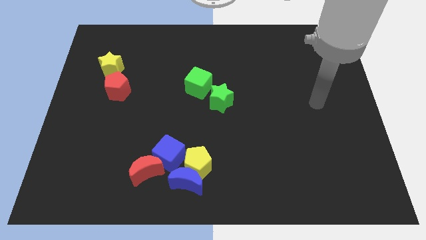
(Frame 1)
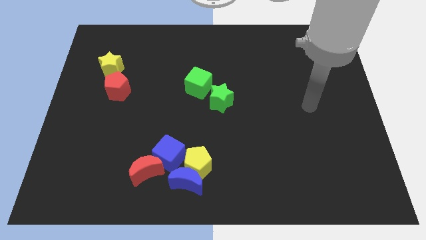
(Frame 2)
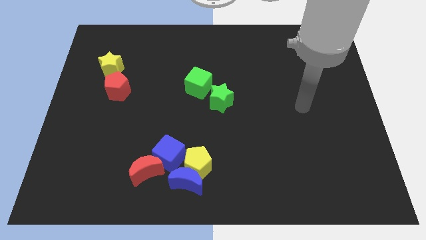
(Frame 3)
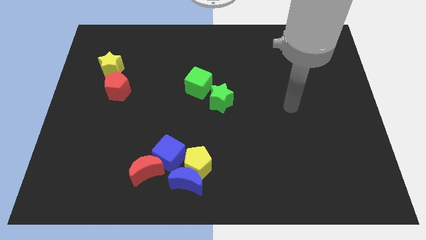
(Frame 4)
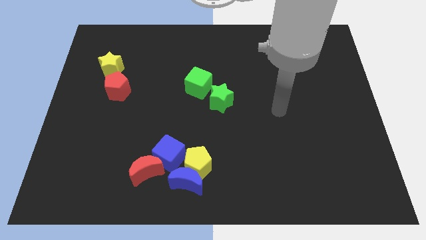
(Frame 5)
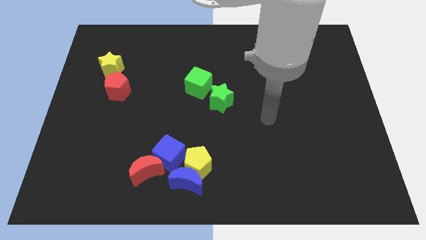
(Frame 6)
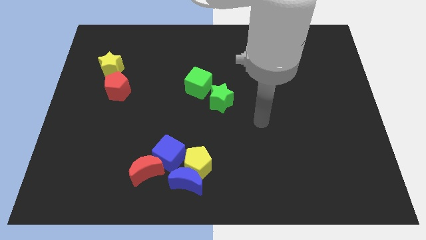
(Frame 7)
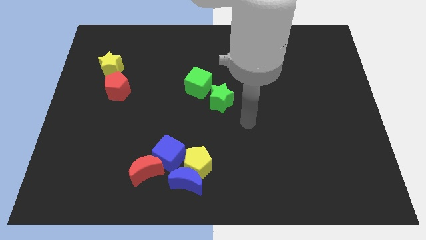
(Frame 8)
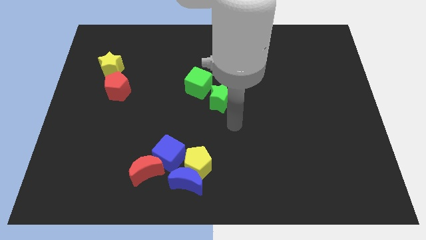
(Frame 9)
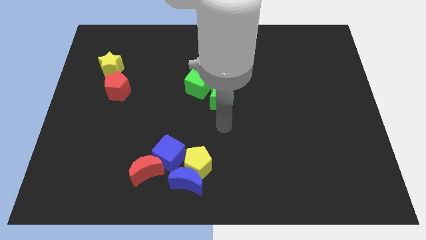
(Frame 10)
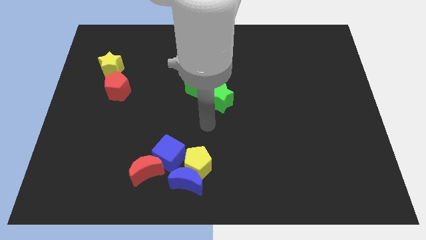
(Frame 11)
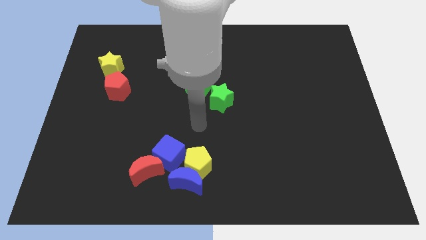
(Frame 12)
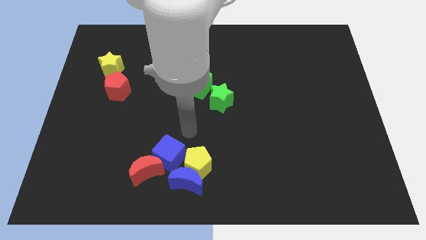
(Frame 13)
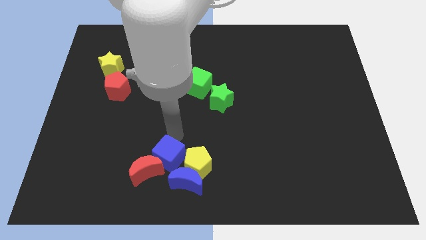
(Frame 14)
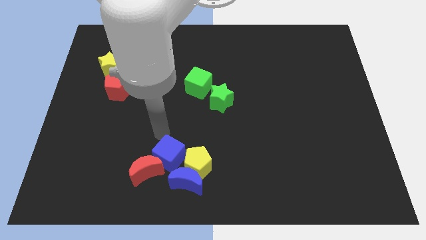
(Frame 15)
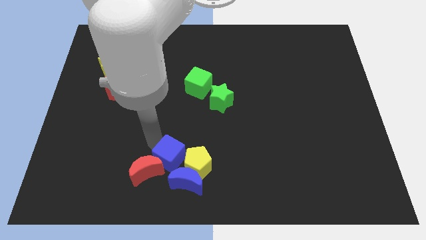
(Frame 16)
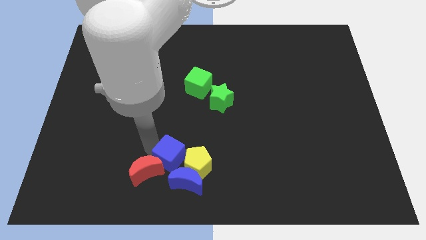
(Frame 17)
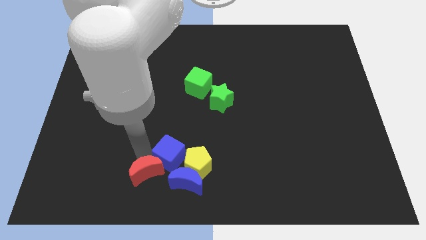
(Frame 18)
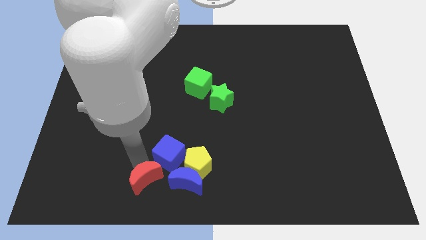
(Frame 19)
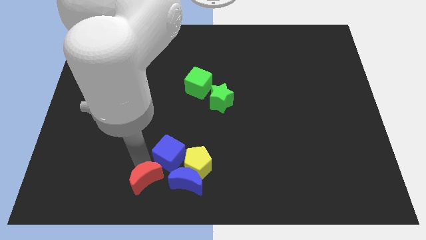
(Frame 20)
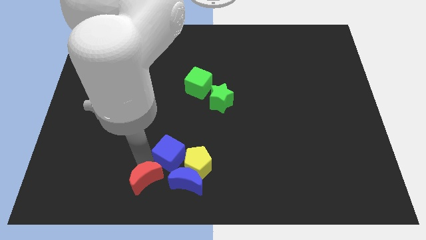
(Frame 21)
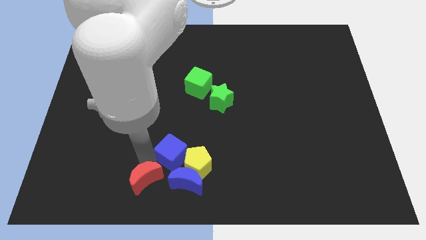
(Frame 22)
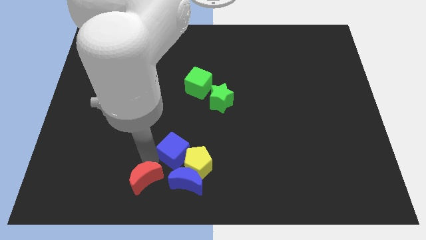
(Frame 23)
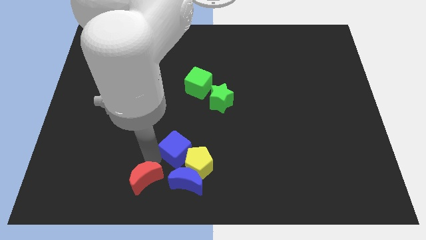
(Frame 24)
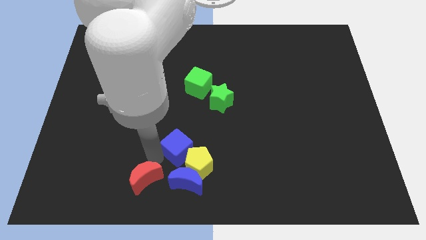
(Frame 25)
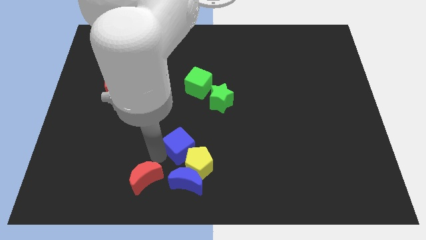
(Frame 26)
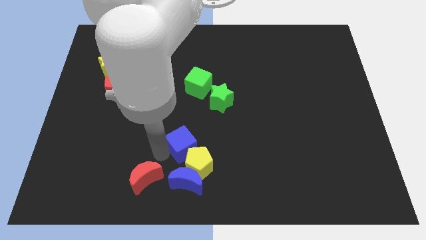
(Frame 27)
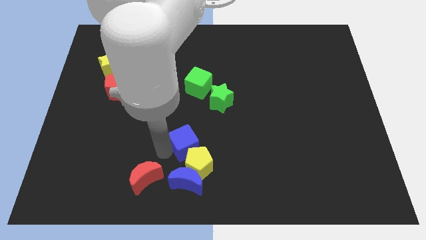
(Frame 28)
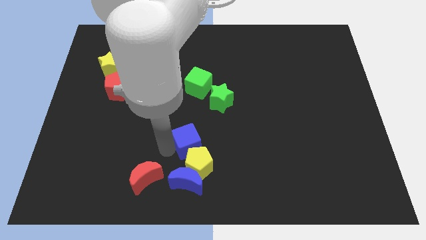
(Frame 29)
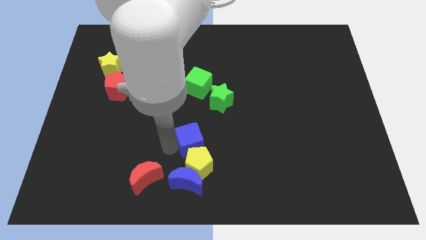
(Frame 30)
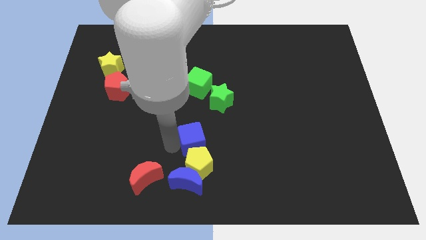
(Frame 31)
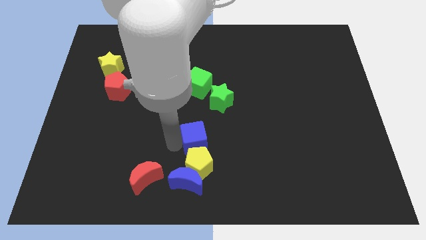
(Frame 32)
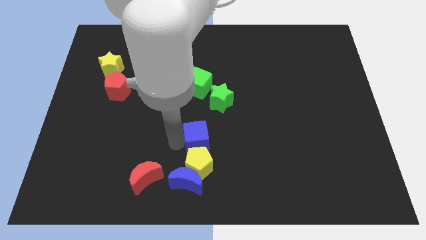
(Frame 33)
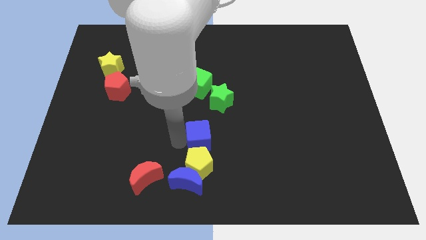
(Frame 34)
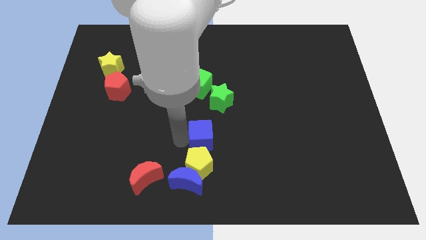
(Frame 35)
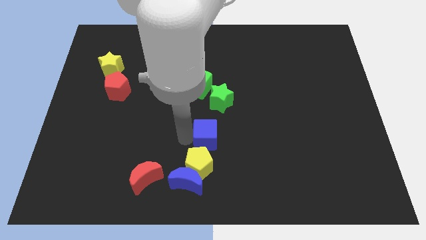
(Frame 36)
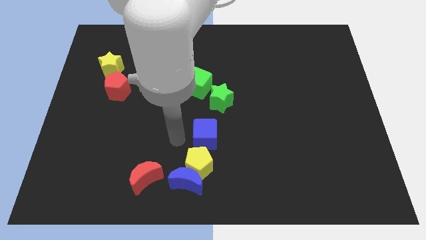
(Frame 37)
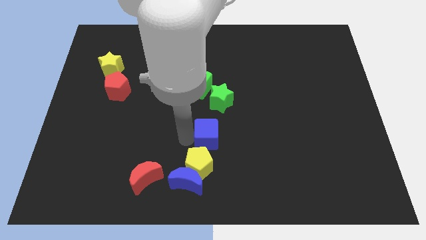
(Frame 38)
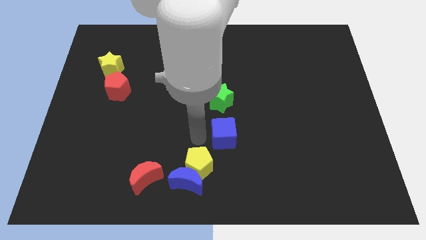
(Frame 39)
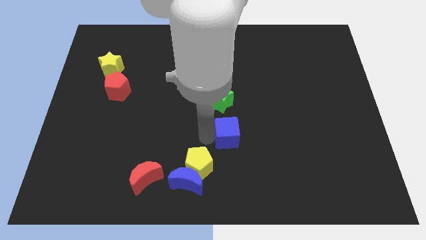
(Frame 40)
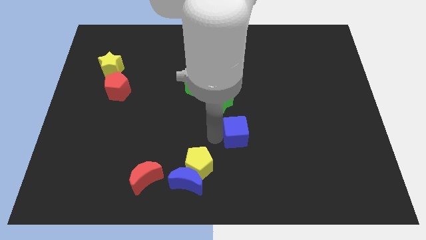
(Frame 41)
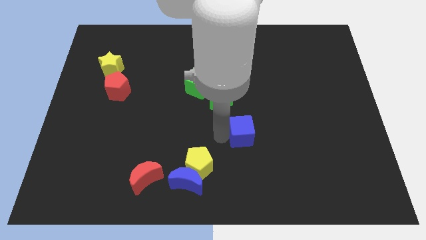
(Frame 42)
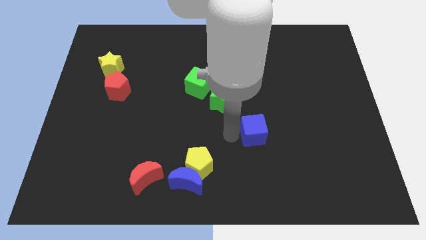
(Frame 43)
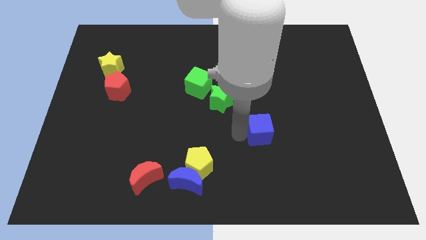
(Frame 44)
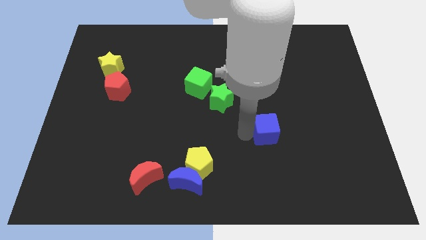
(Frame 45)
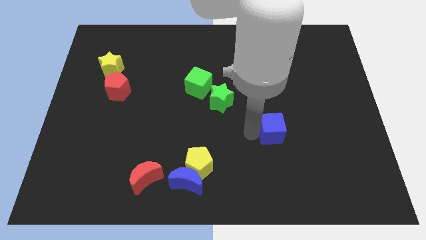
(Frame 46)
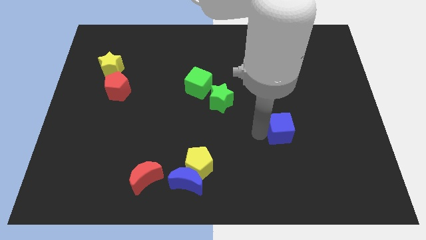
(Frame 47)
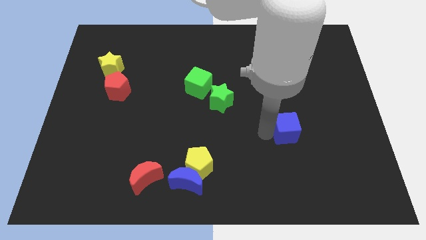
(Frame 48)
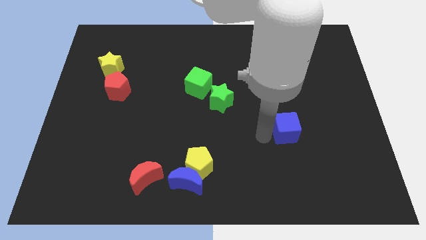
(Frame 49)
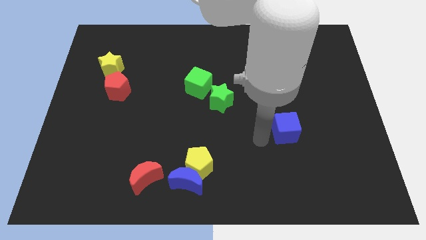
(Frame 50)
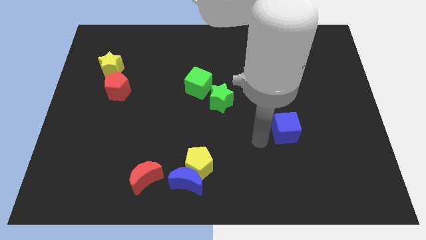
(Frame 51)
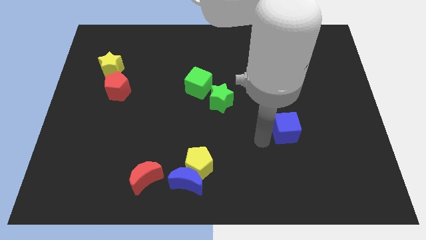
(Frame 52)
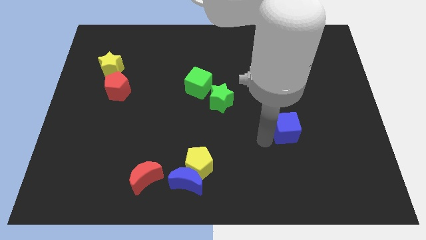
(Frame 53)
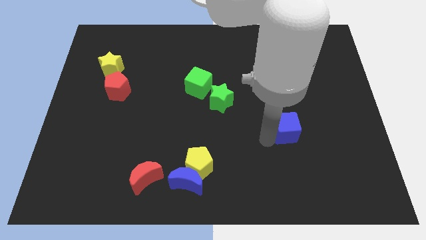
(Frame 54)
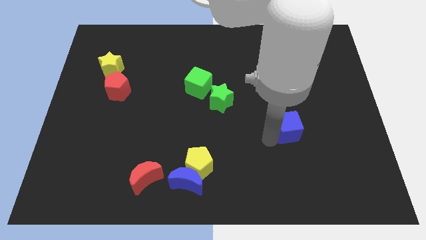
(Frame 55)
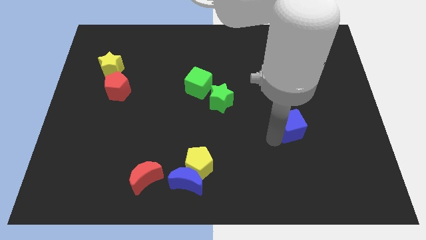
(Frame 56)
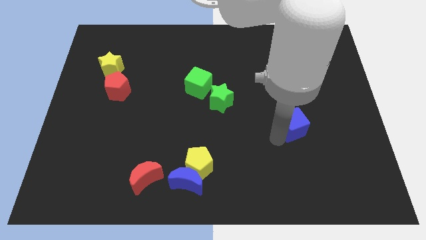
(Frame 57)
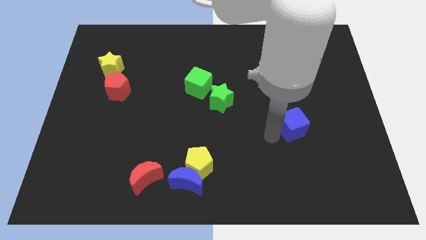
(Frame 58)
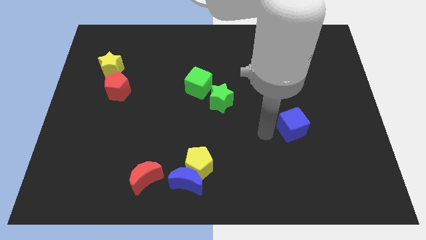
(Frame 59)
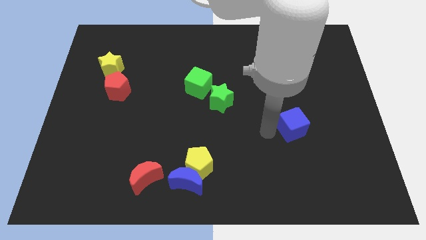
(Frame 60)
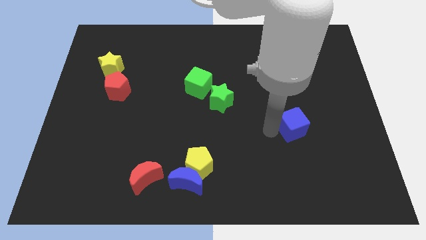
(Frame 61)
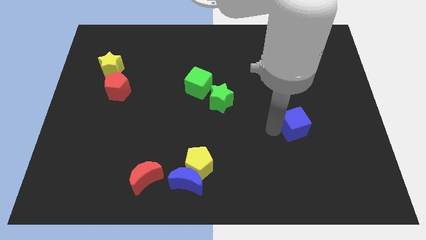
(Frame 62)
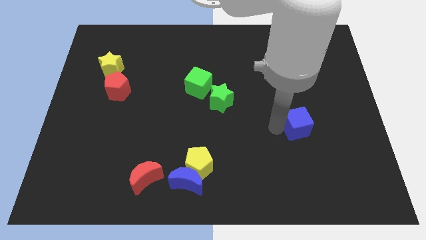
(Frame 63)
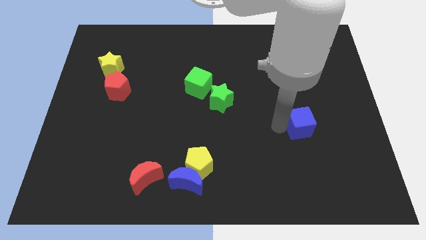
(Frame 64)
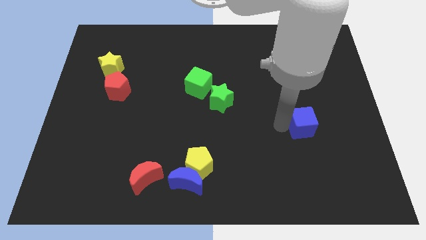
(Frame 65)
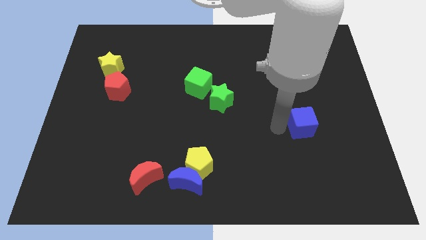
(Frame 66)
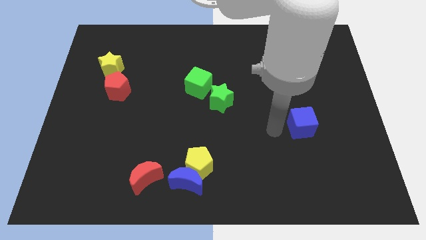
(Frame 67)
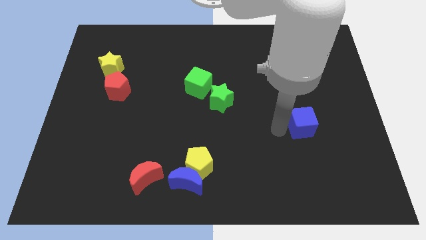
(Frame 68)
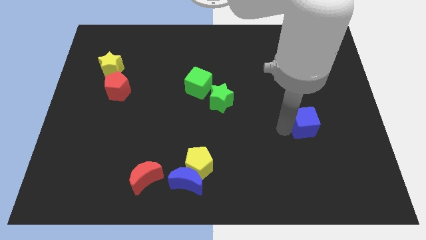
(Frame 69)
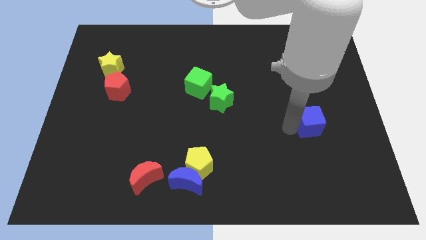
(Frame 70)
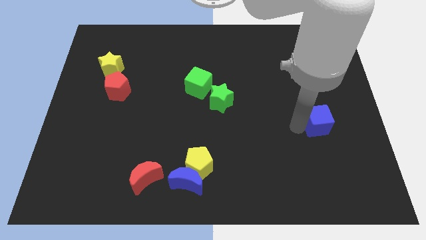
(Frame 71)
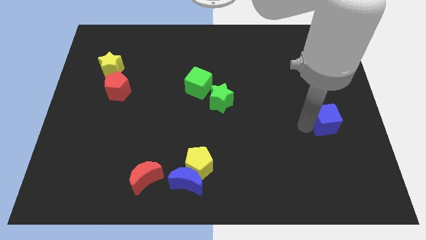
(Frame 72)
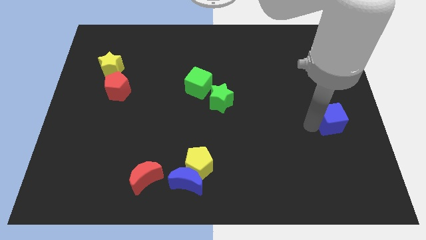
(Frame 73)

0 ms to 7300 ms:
move the blue cube to the right side of the board

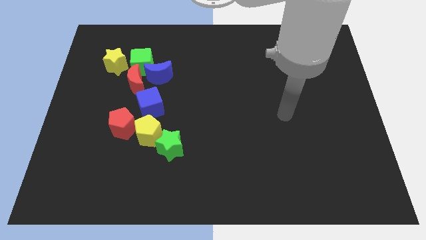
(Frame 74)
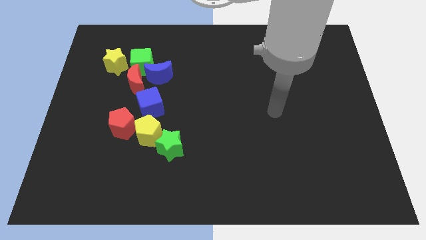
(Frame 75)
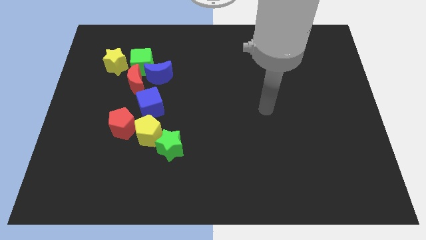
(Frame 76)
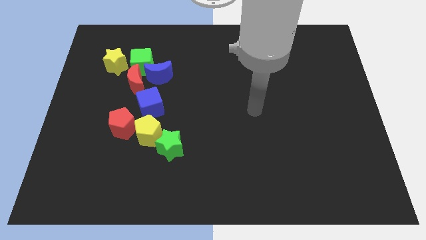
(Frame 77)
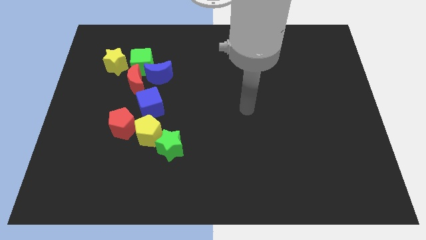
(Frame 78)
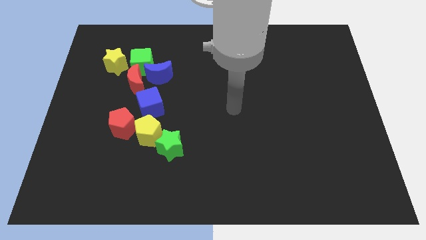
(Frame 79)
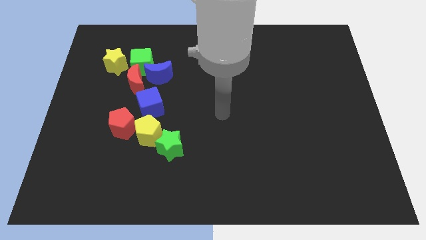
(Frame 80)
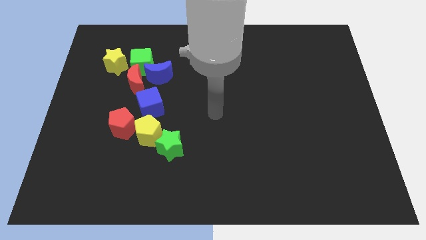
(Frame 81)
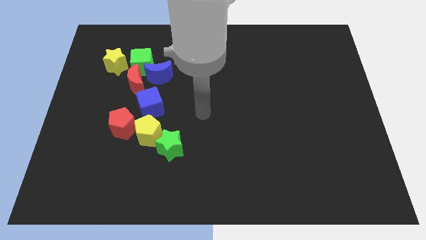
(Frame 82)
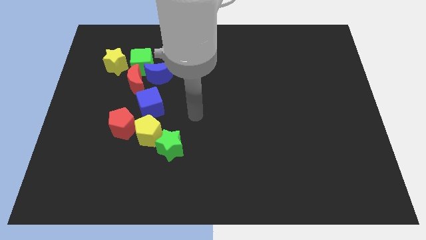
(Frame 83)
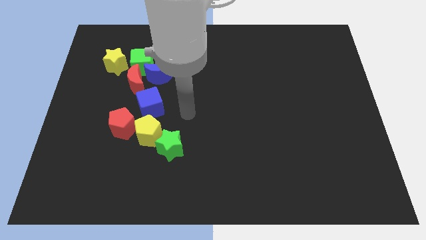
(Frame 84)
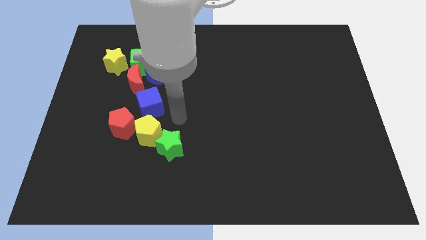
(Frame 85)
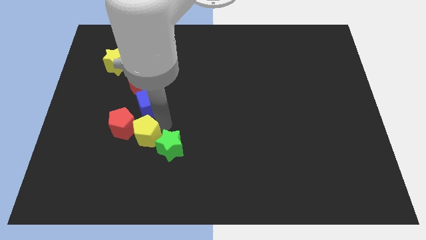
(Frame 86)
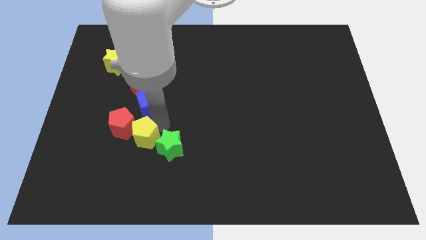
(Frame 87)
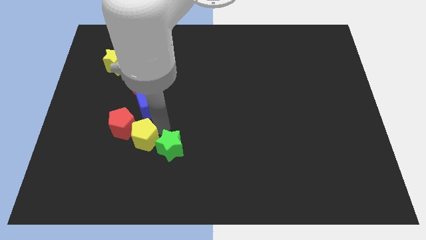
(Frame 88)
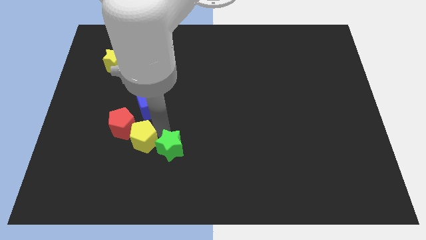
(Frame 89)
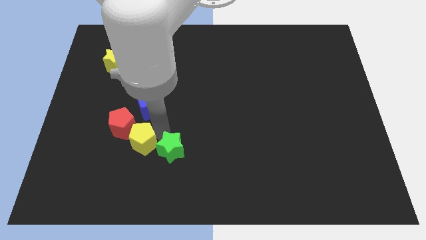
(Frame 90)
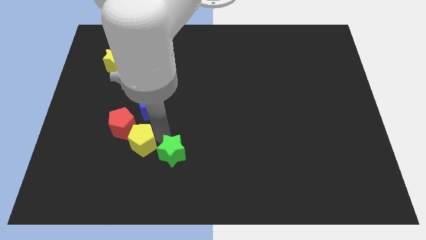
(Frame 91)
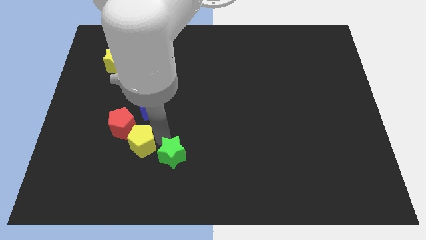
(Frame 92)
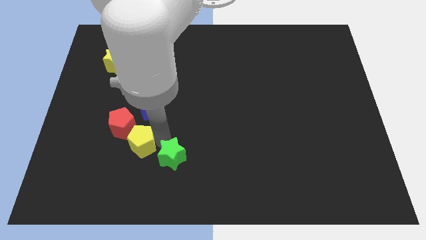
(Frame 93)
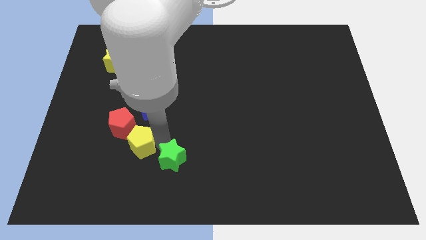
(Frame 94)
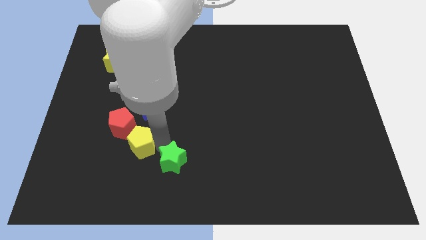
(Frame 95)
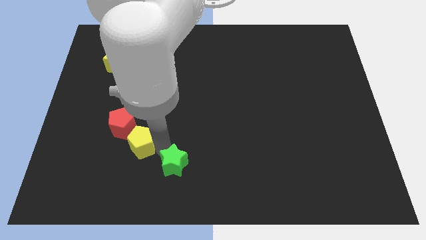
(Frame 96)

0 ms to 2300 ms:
put the green star to the bottom
